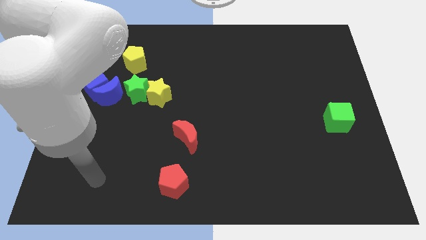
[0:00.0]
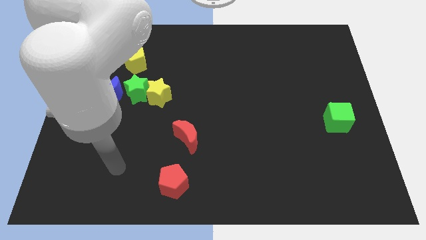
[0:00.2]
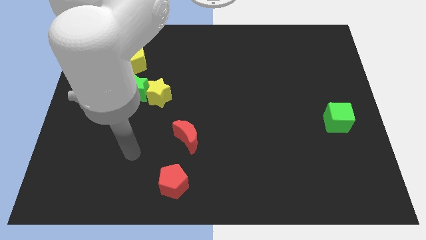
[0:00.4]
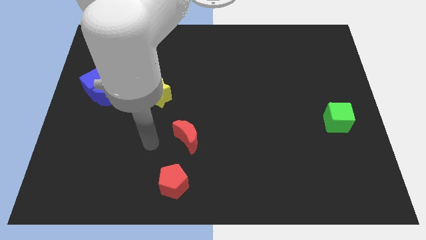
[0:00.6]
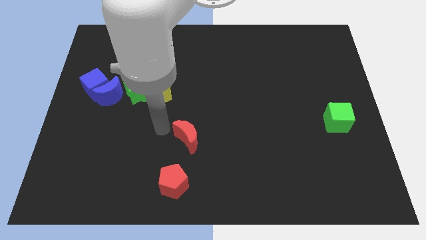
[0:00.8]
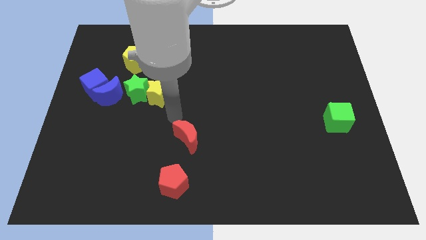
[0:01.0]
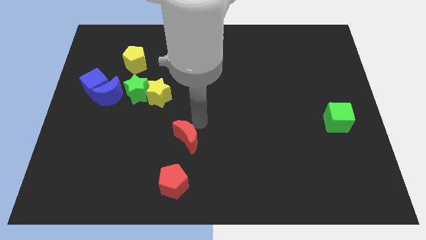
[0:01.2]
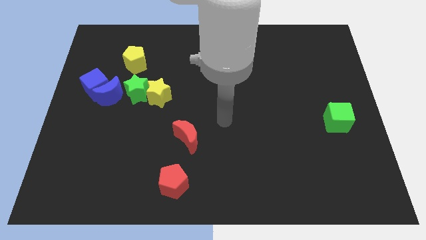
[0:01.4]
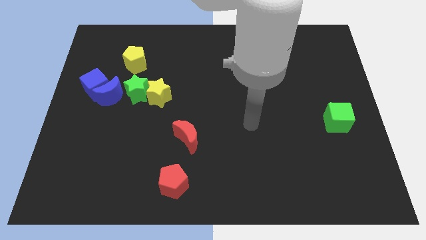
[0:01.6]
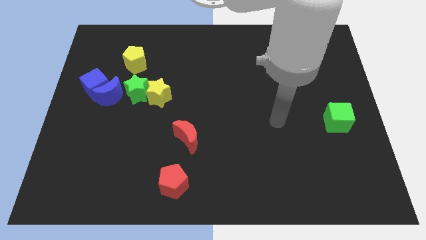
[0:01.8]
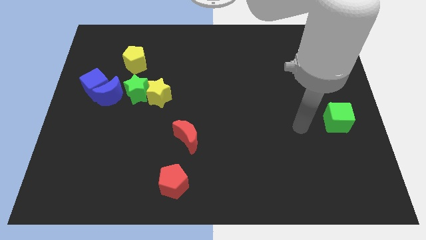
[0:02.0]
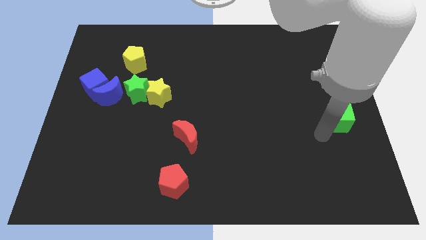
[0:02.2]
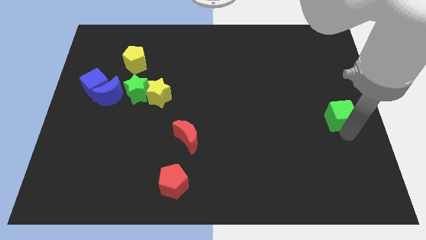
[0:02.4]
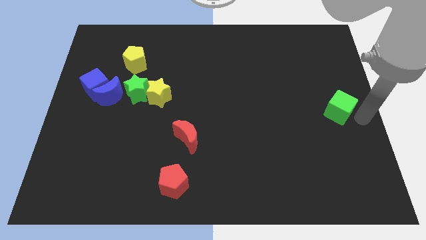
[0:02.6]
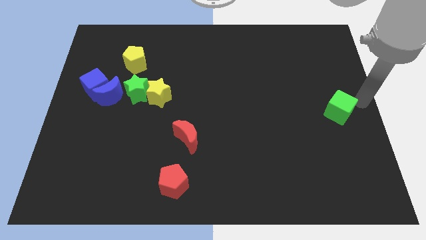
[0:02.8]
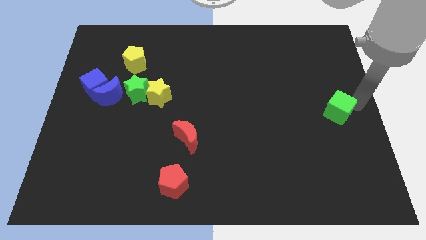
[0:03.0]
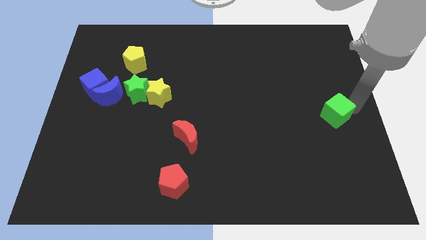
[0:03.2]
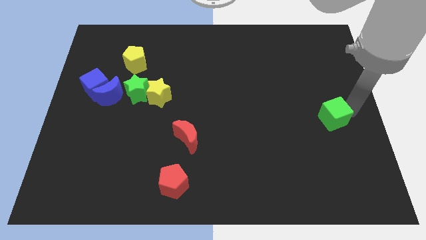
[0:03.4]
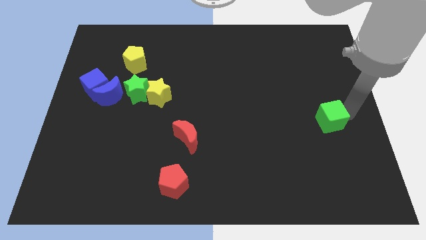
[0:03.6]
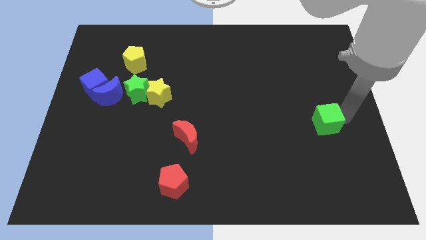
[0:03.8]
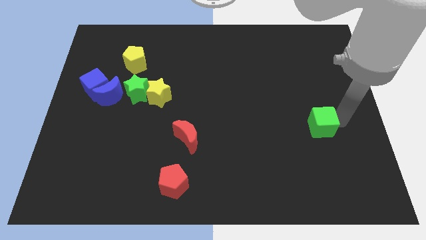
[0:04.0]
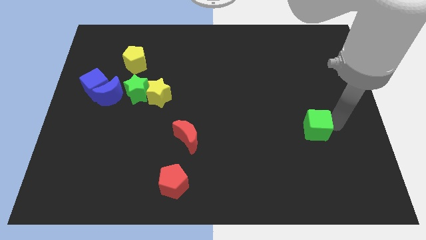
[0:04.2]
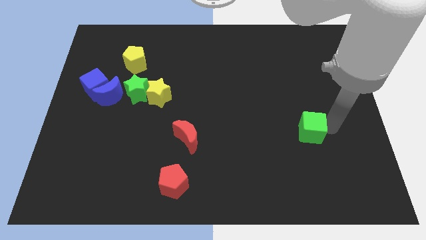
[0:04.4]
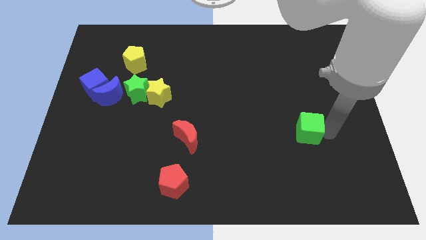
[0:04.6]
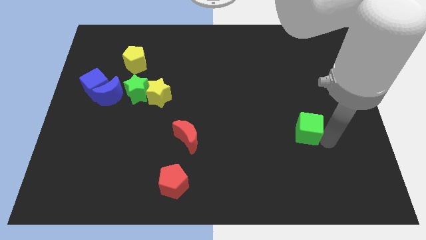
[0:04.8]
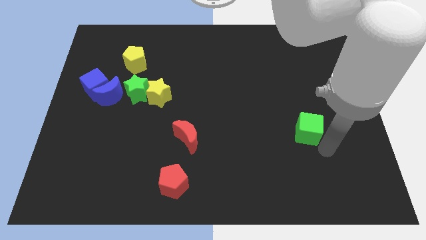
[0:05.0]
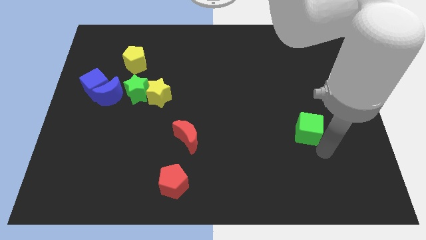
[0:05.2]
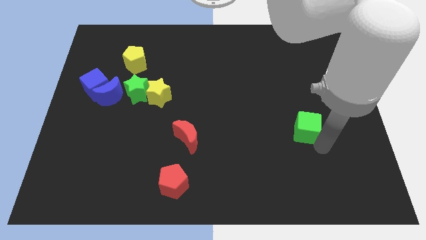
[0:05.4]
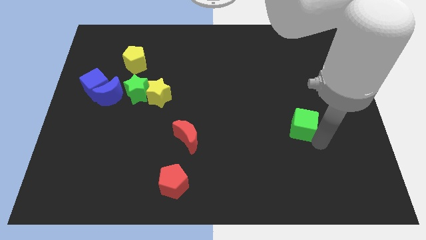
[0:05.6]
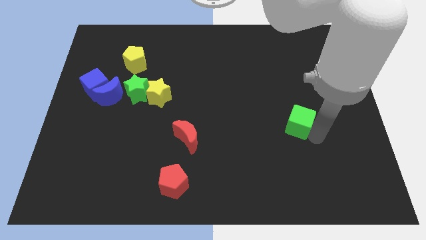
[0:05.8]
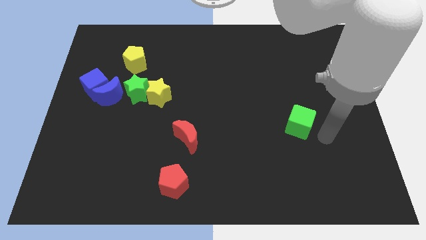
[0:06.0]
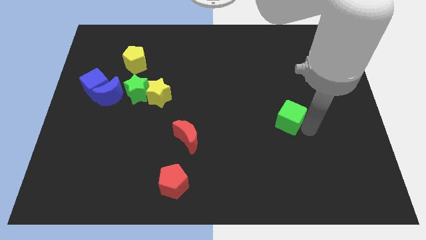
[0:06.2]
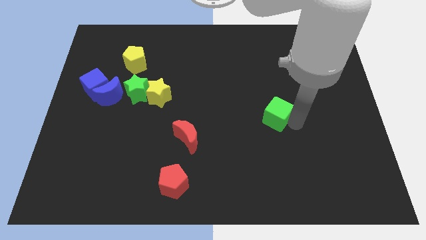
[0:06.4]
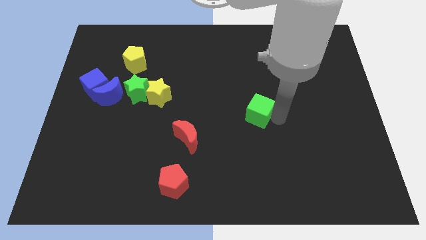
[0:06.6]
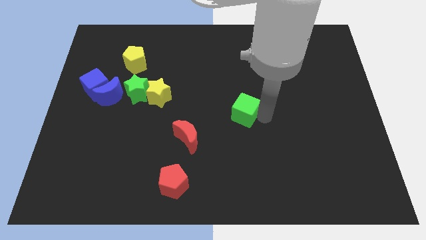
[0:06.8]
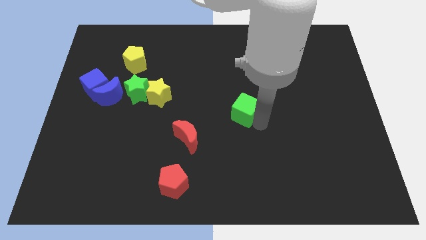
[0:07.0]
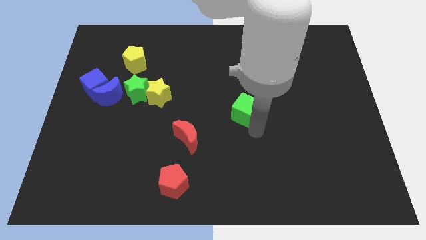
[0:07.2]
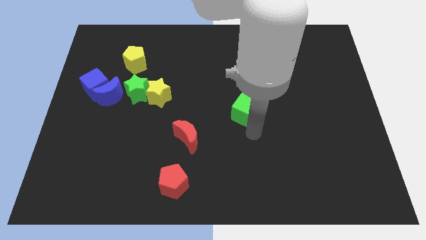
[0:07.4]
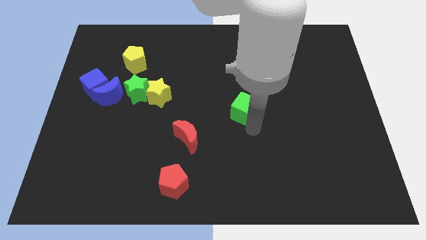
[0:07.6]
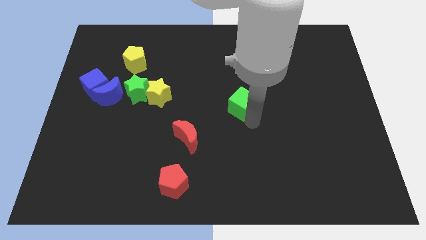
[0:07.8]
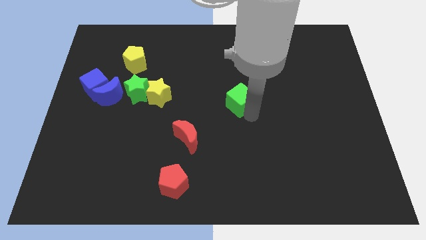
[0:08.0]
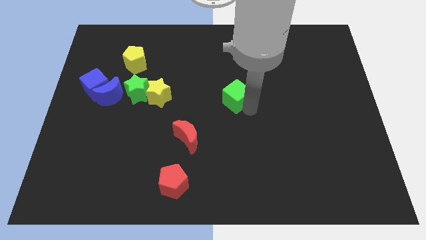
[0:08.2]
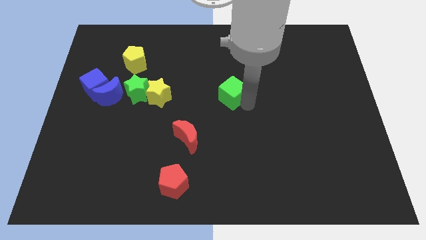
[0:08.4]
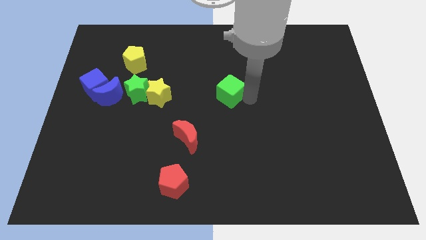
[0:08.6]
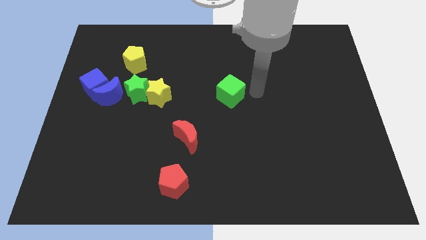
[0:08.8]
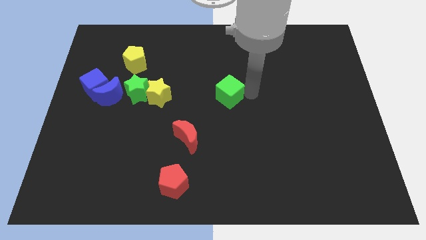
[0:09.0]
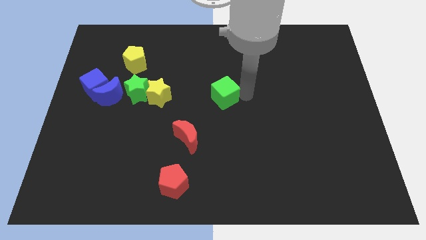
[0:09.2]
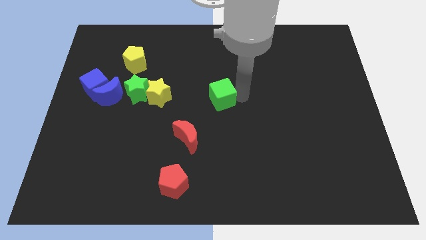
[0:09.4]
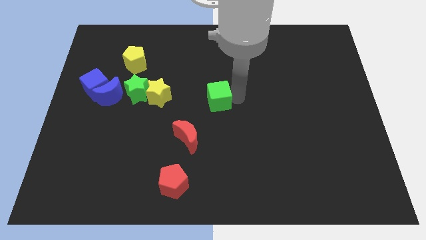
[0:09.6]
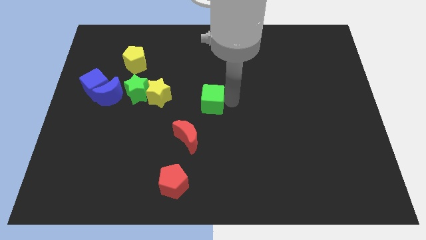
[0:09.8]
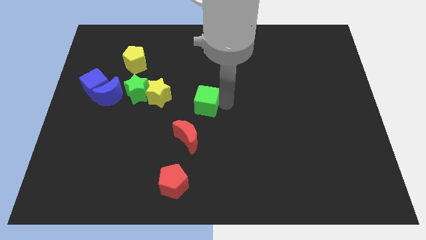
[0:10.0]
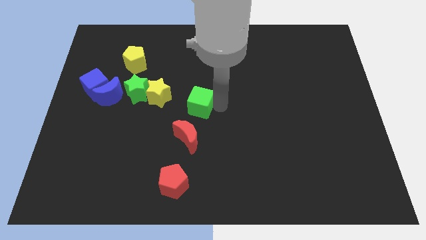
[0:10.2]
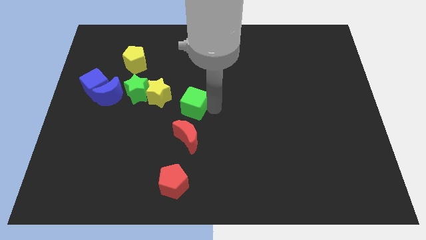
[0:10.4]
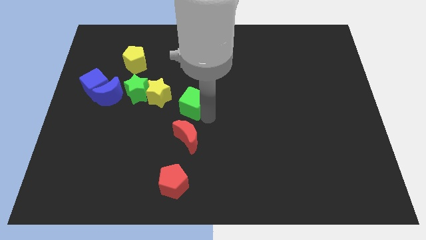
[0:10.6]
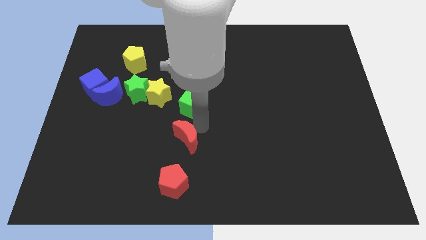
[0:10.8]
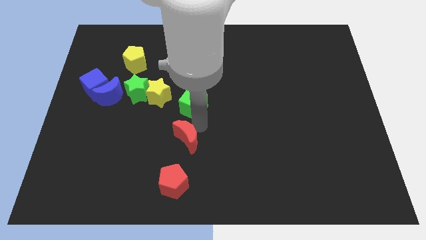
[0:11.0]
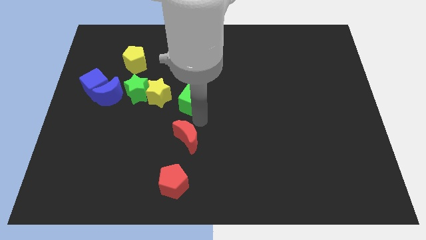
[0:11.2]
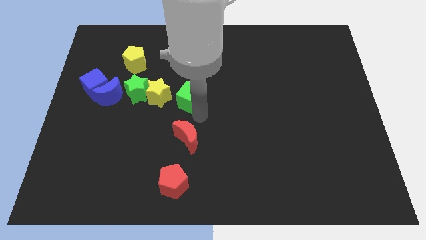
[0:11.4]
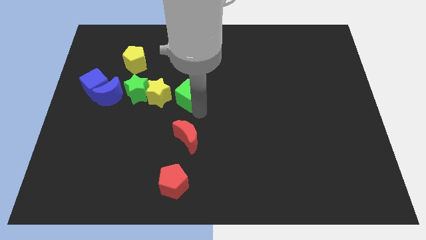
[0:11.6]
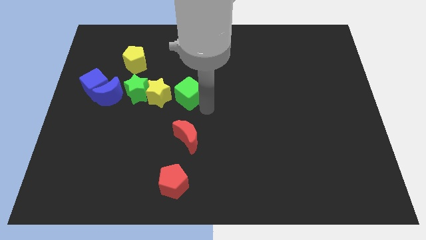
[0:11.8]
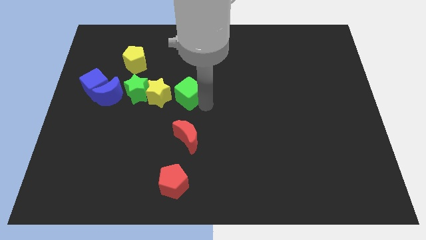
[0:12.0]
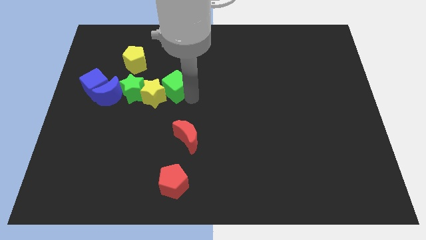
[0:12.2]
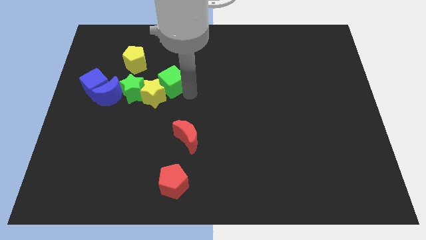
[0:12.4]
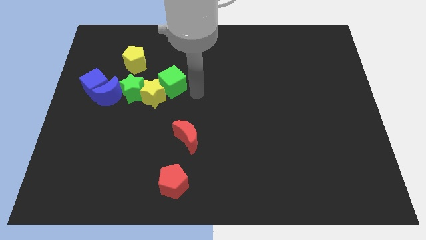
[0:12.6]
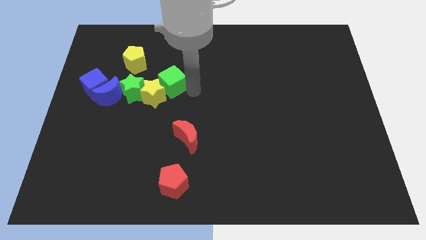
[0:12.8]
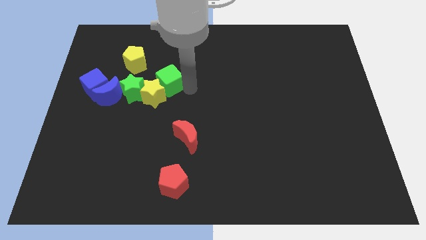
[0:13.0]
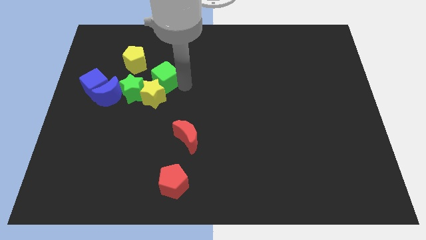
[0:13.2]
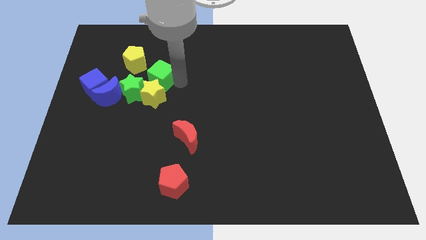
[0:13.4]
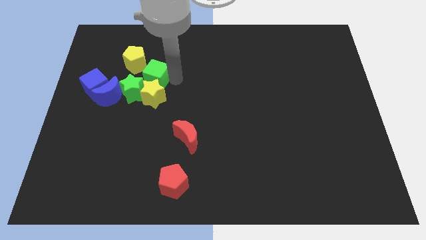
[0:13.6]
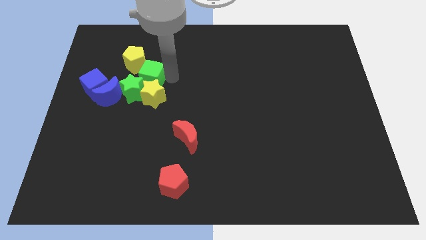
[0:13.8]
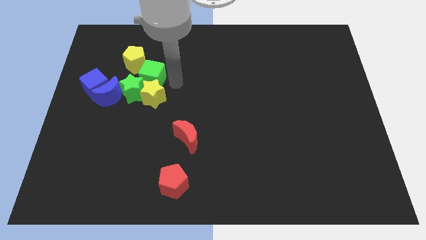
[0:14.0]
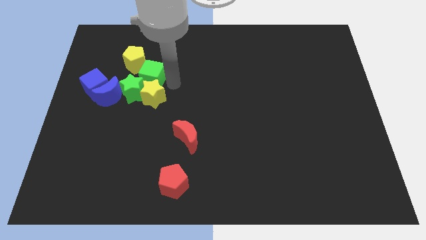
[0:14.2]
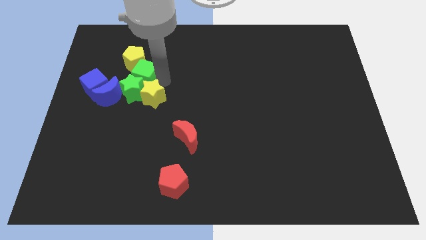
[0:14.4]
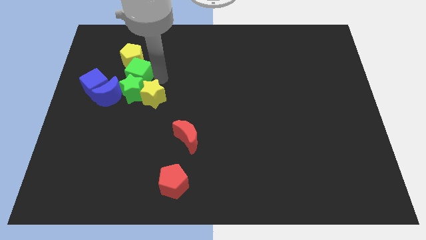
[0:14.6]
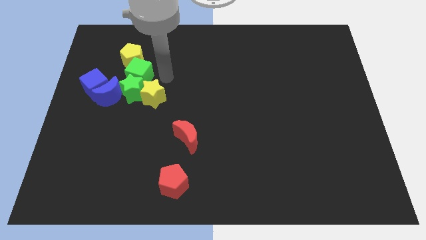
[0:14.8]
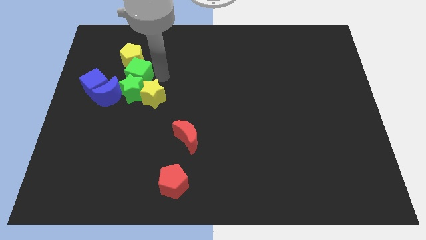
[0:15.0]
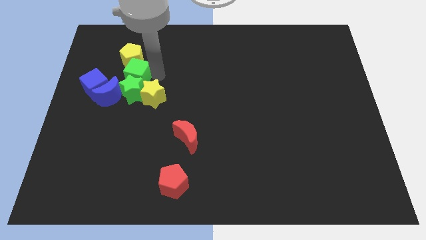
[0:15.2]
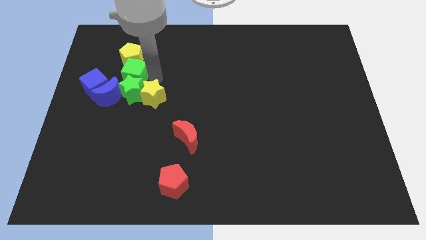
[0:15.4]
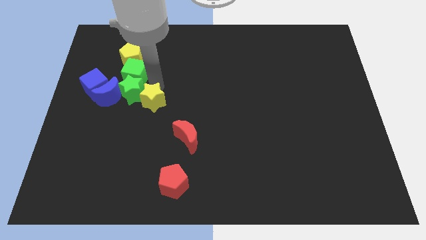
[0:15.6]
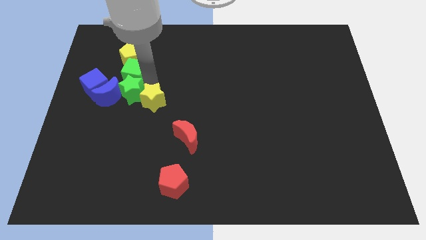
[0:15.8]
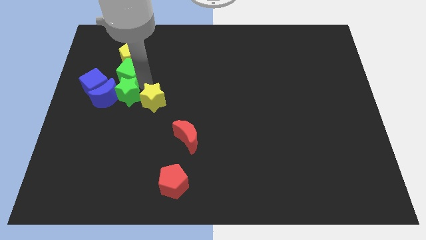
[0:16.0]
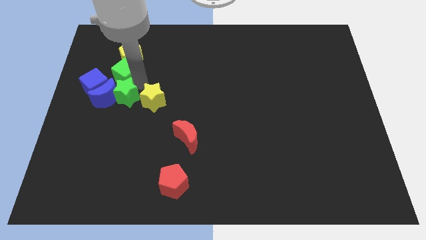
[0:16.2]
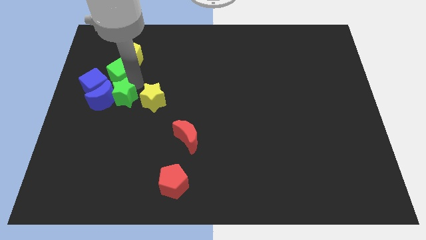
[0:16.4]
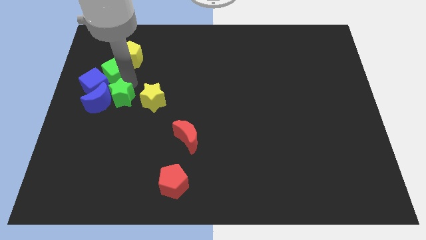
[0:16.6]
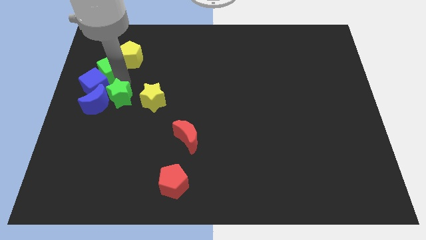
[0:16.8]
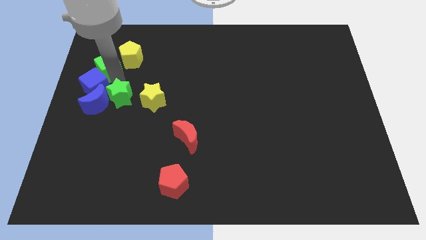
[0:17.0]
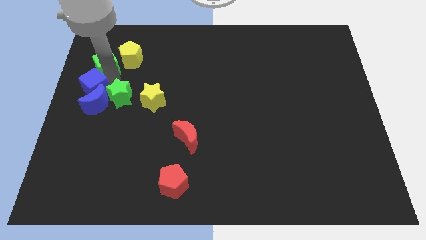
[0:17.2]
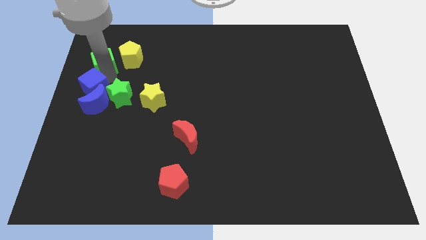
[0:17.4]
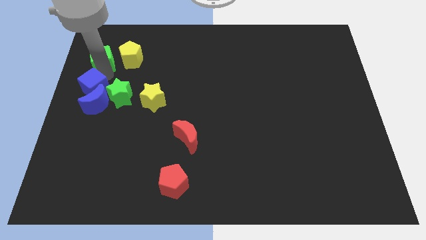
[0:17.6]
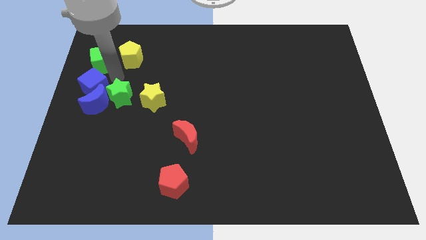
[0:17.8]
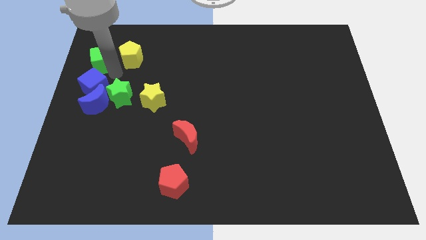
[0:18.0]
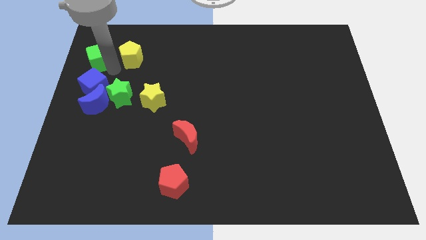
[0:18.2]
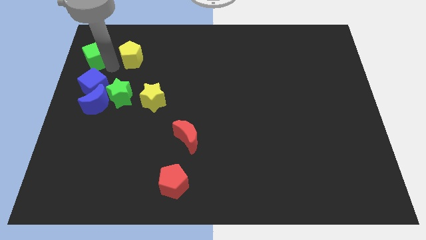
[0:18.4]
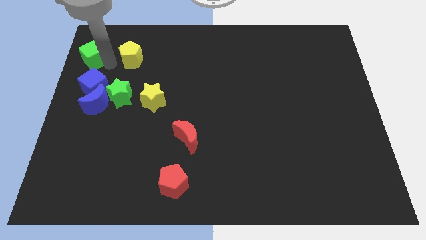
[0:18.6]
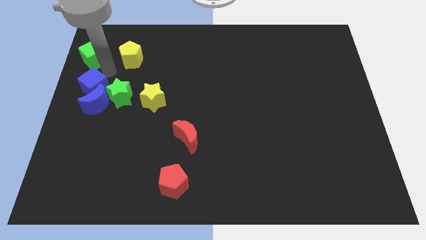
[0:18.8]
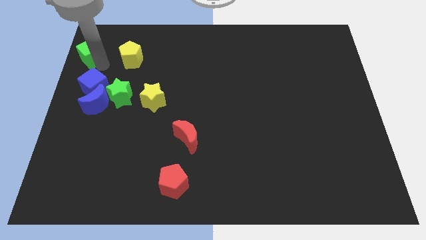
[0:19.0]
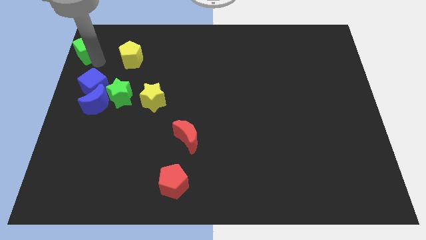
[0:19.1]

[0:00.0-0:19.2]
move the green cube to the top left
